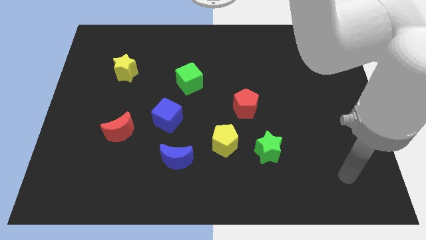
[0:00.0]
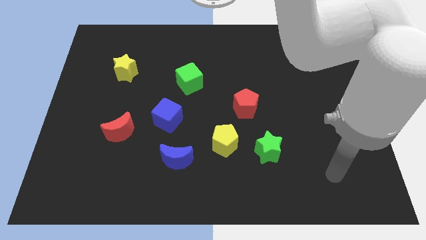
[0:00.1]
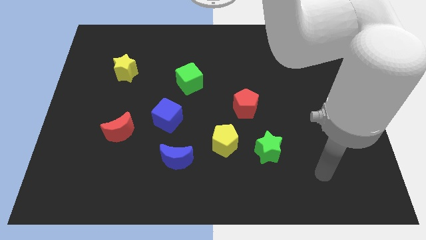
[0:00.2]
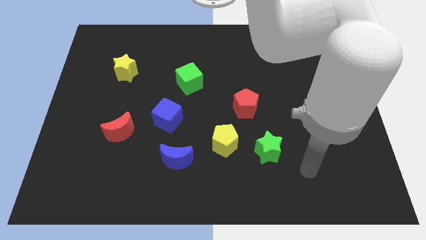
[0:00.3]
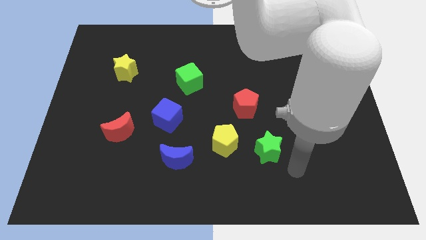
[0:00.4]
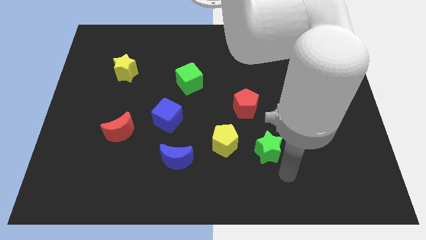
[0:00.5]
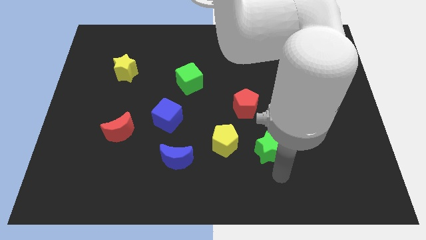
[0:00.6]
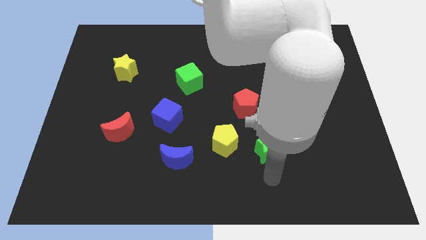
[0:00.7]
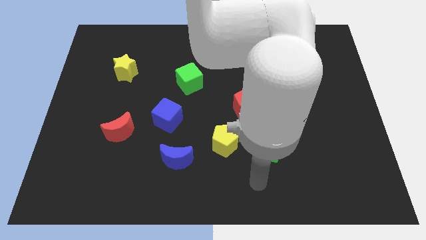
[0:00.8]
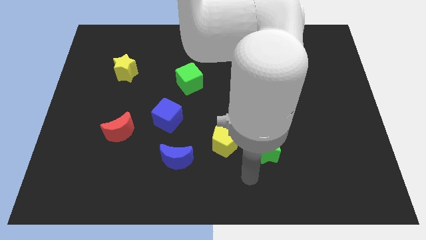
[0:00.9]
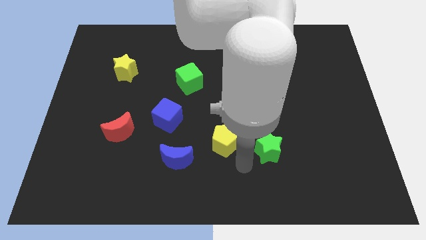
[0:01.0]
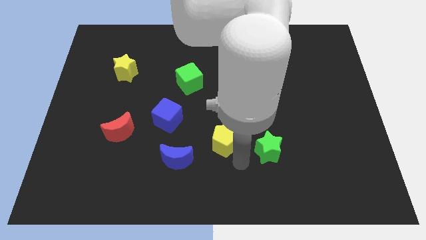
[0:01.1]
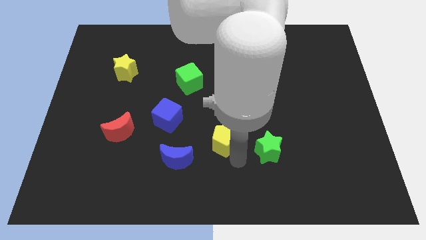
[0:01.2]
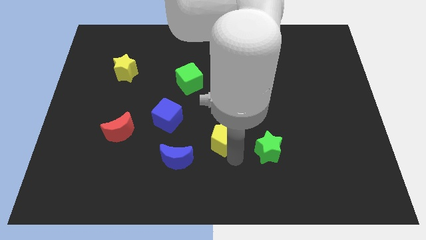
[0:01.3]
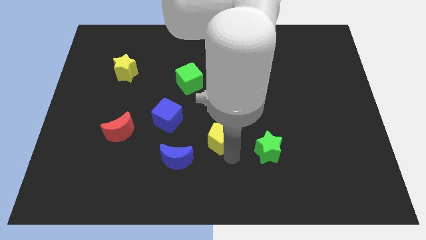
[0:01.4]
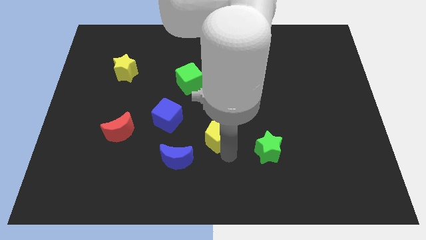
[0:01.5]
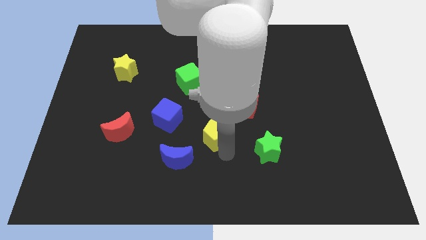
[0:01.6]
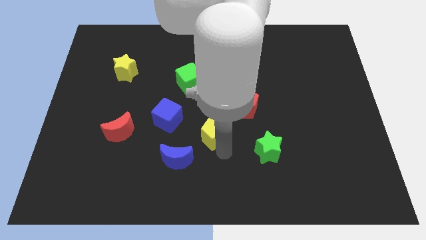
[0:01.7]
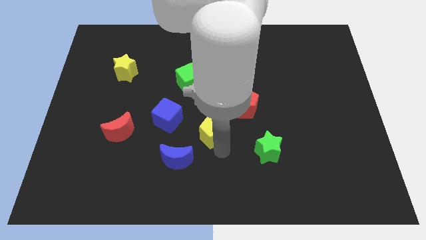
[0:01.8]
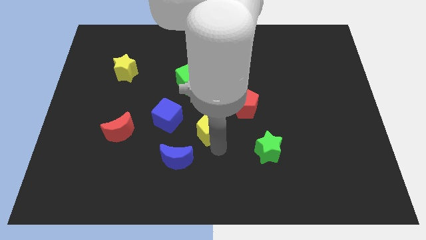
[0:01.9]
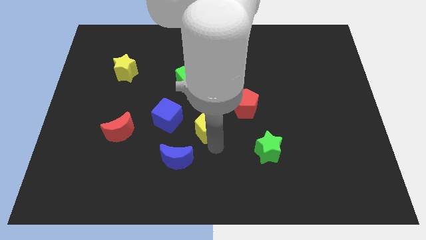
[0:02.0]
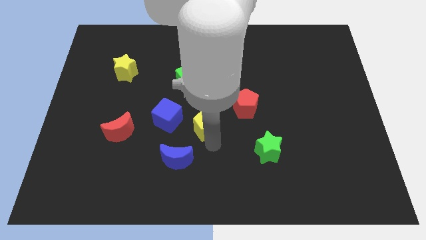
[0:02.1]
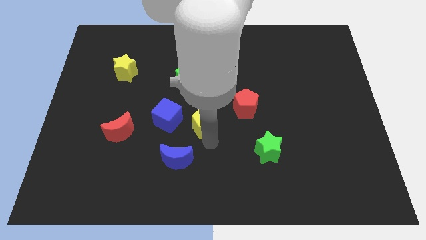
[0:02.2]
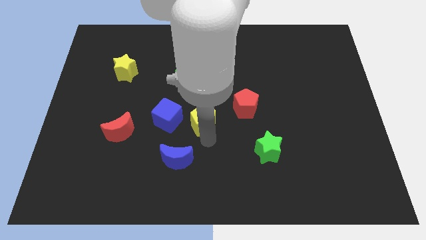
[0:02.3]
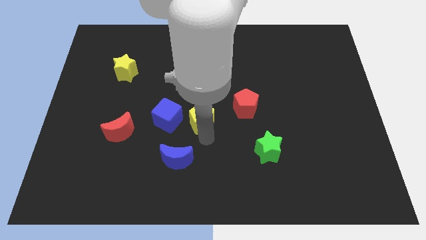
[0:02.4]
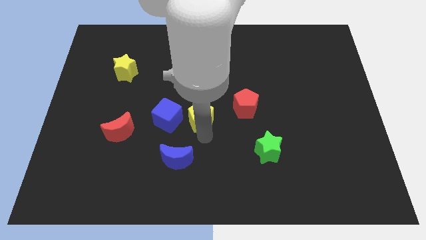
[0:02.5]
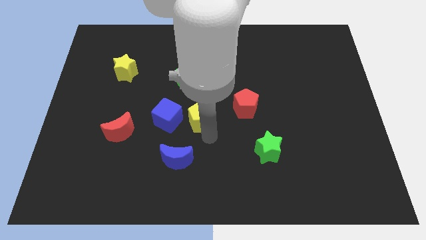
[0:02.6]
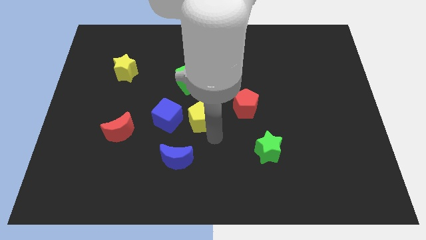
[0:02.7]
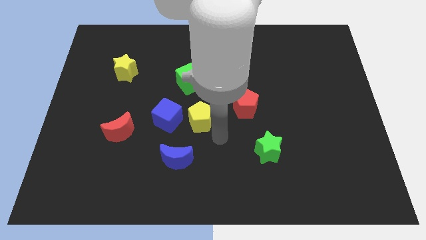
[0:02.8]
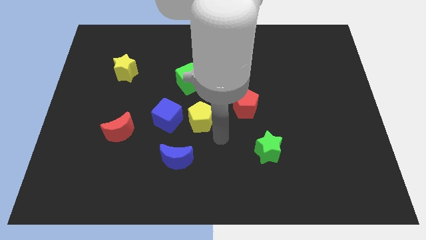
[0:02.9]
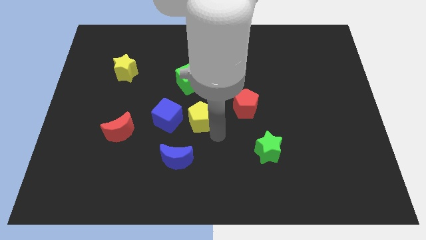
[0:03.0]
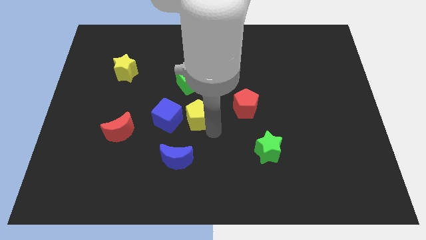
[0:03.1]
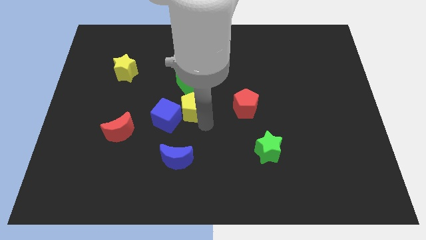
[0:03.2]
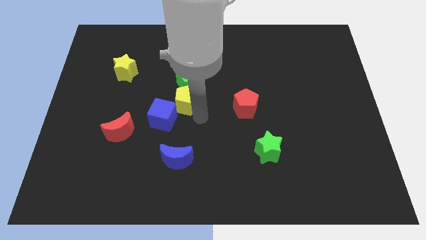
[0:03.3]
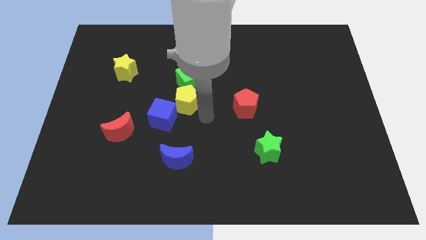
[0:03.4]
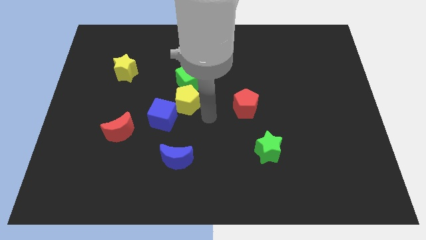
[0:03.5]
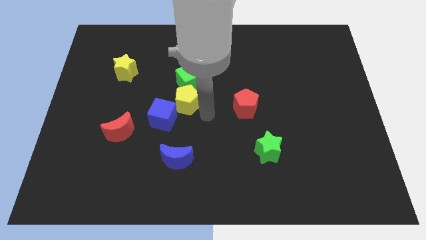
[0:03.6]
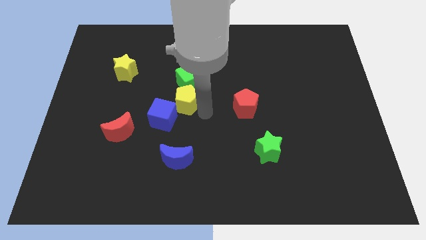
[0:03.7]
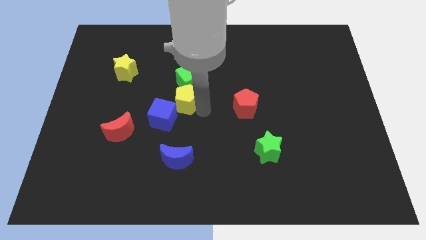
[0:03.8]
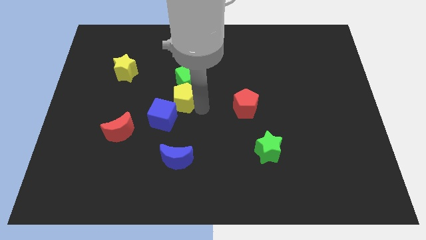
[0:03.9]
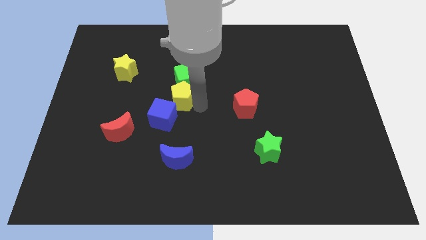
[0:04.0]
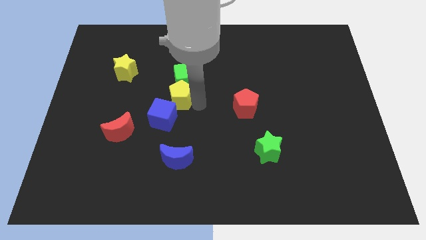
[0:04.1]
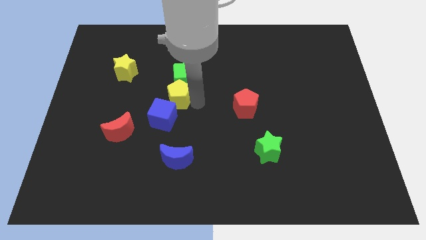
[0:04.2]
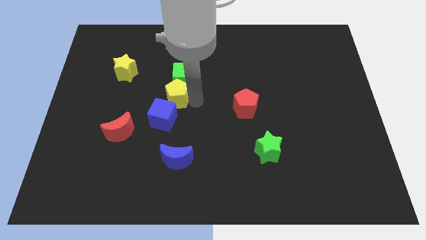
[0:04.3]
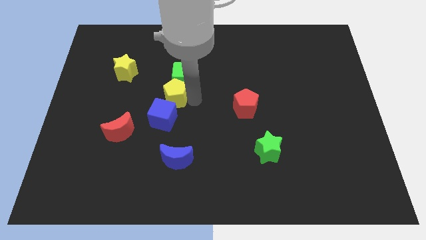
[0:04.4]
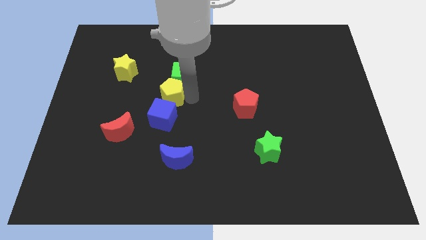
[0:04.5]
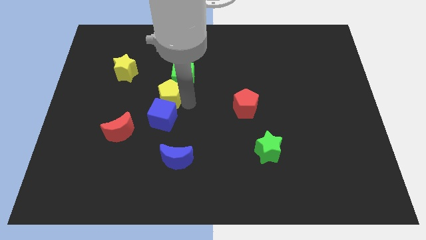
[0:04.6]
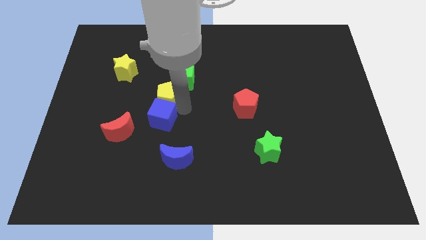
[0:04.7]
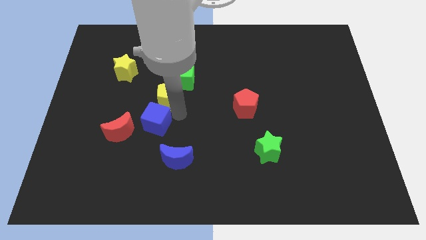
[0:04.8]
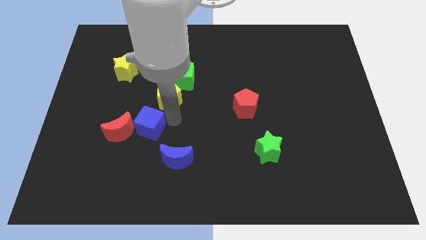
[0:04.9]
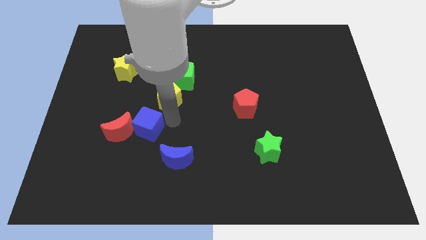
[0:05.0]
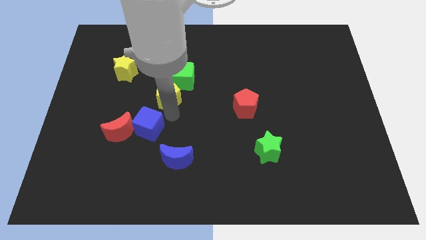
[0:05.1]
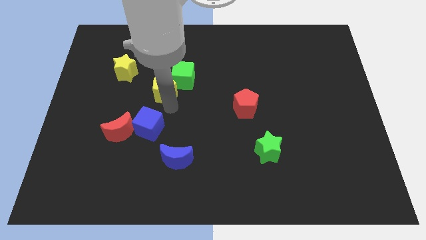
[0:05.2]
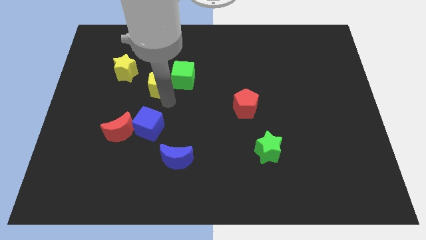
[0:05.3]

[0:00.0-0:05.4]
move the yellow pentagon to the right of the yellow star

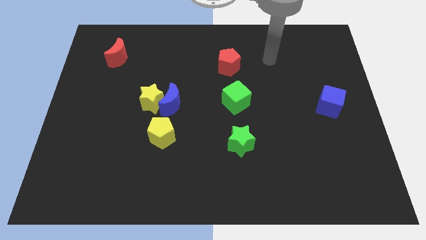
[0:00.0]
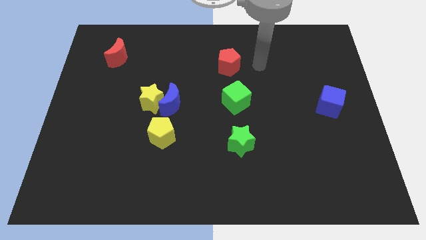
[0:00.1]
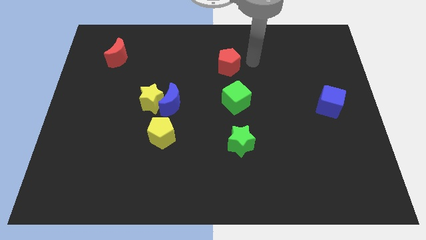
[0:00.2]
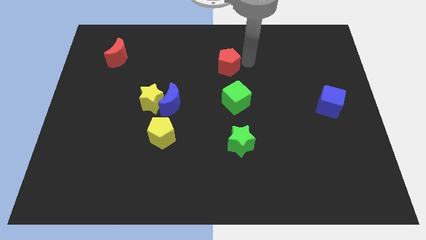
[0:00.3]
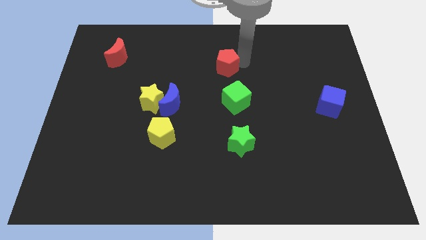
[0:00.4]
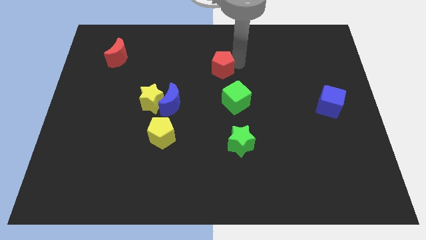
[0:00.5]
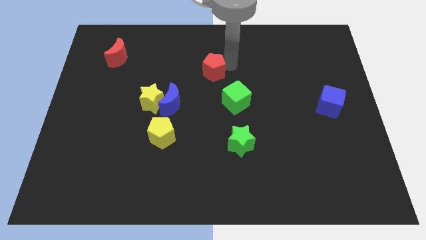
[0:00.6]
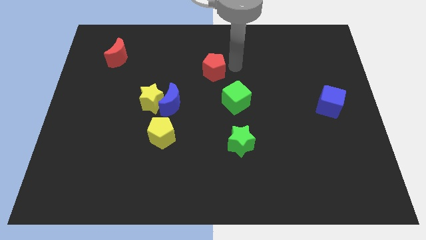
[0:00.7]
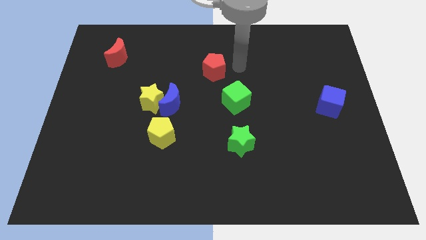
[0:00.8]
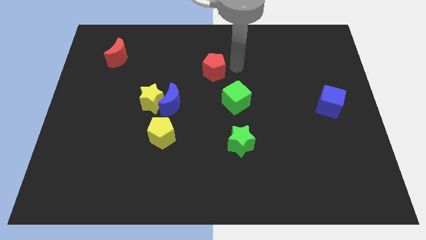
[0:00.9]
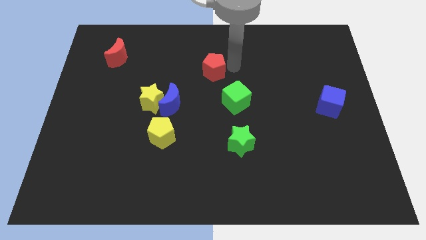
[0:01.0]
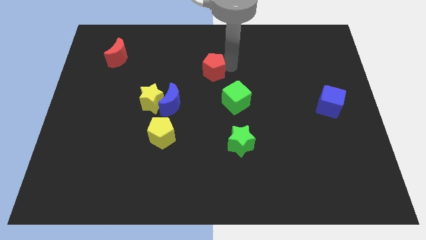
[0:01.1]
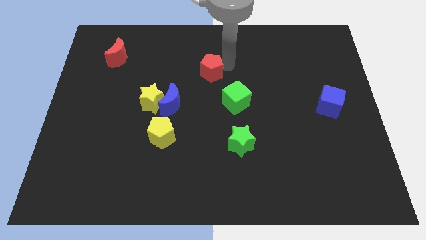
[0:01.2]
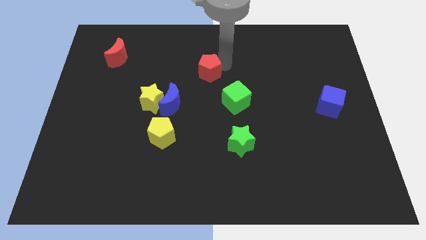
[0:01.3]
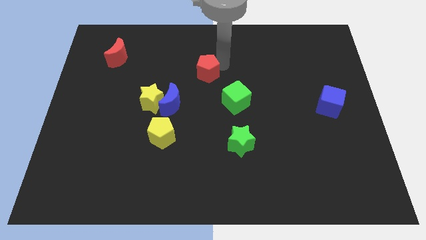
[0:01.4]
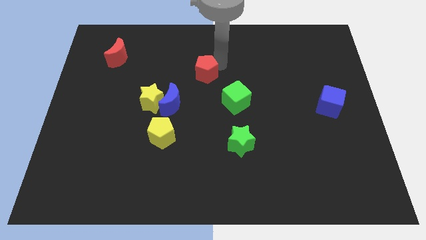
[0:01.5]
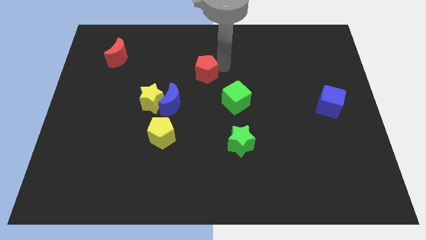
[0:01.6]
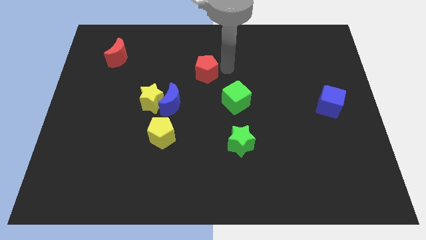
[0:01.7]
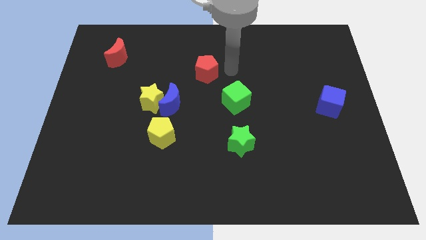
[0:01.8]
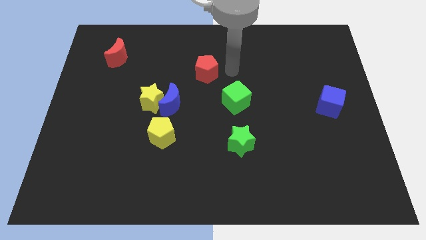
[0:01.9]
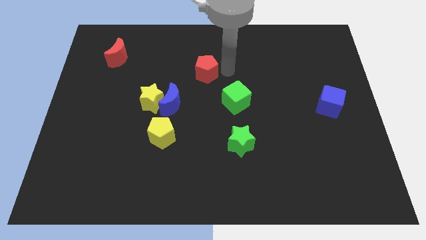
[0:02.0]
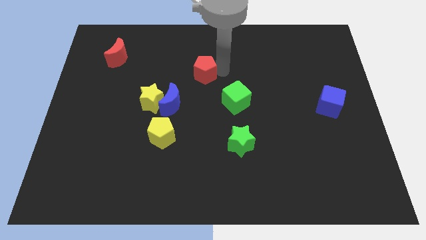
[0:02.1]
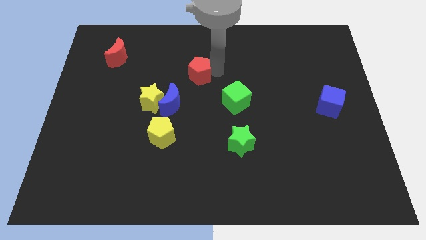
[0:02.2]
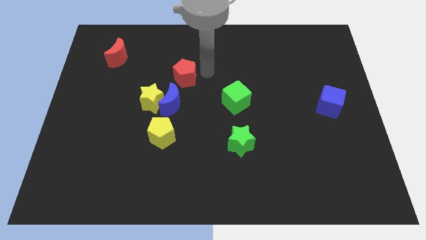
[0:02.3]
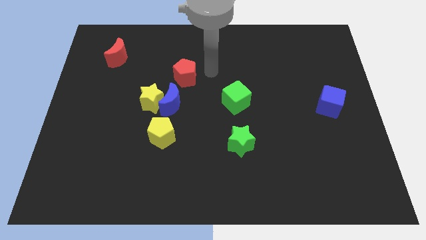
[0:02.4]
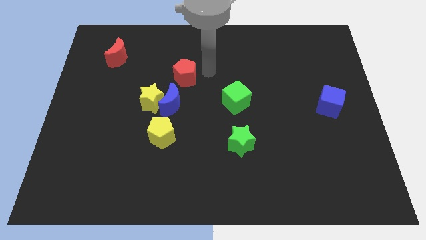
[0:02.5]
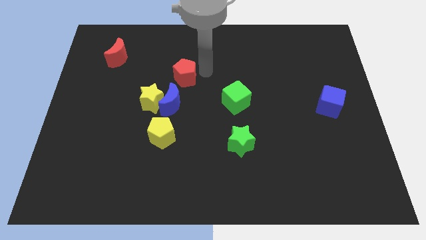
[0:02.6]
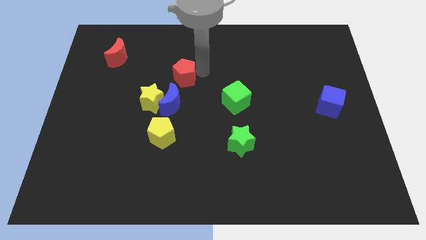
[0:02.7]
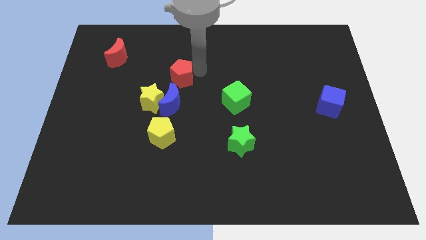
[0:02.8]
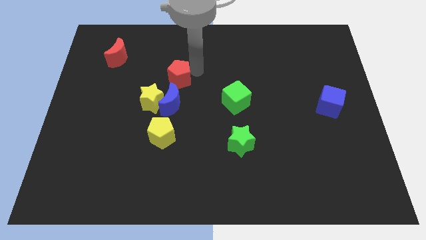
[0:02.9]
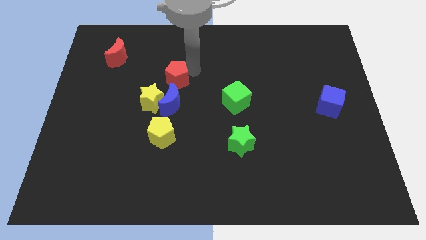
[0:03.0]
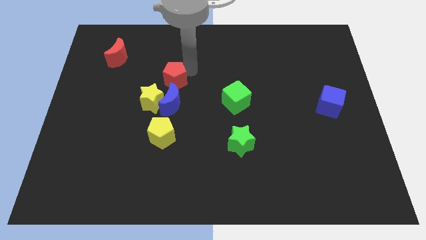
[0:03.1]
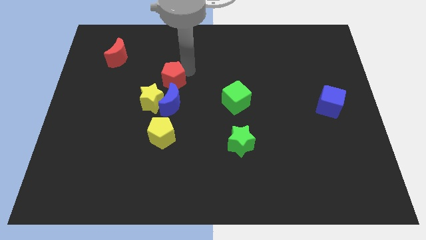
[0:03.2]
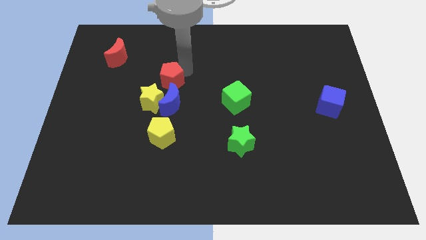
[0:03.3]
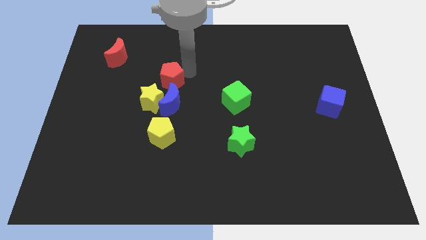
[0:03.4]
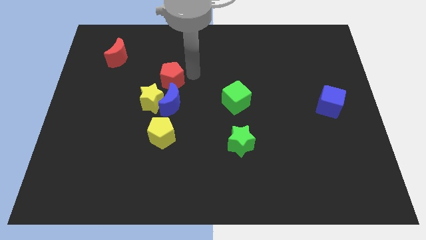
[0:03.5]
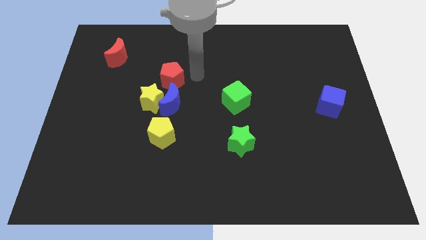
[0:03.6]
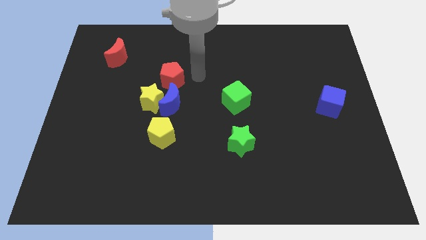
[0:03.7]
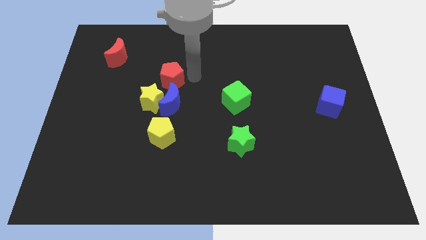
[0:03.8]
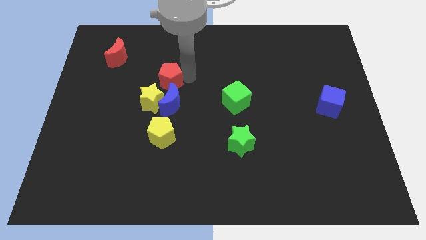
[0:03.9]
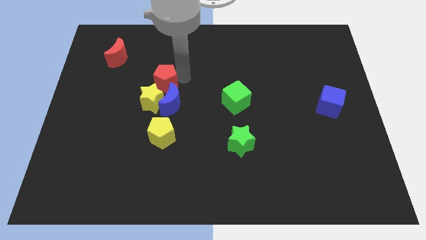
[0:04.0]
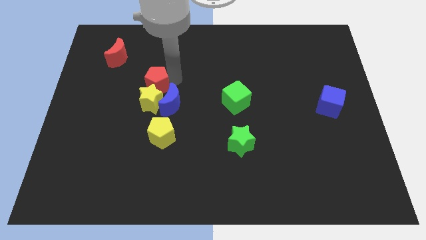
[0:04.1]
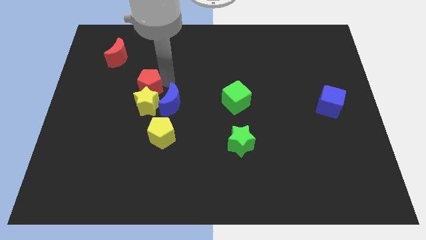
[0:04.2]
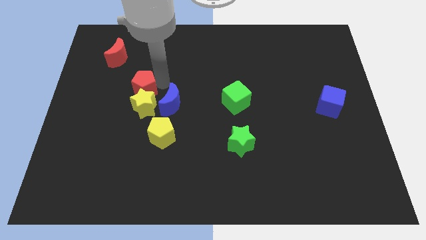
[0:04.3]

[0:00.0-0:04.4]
move the red pentagon left of the blue moon
